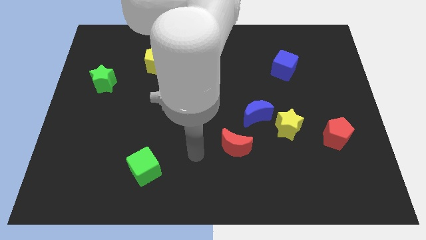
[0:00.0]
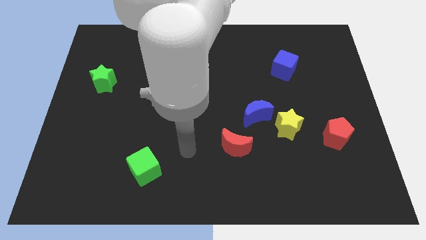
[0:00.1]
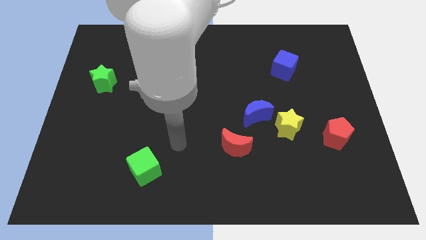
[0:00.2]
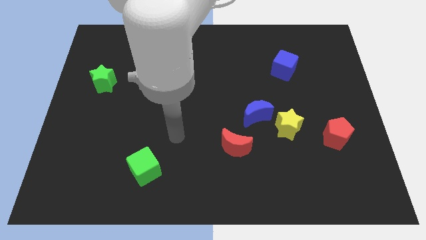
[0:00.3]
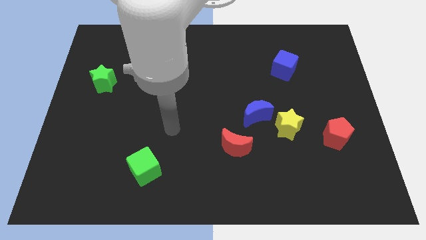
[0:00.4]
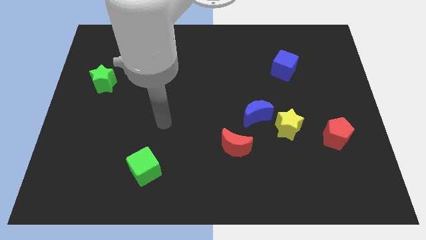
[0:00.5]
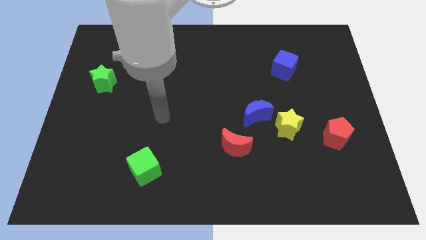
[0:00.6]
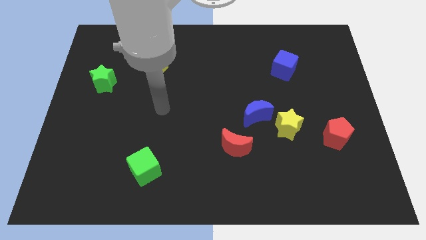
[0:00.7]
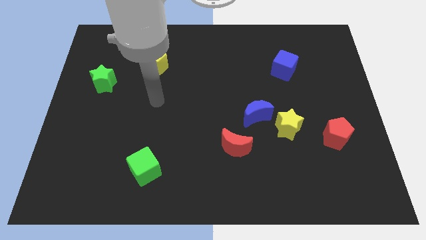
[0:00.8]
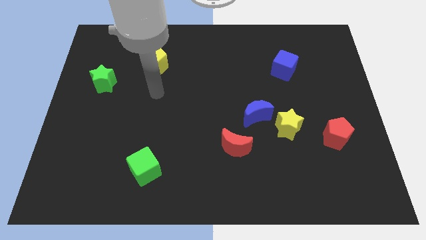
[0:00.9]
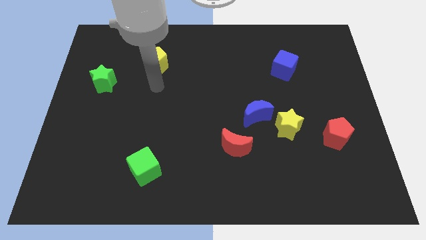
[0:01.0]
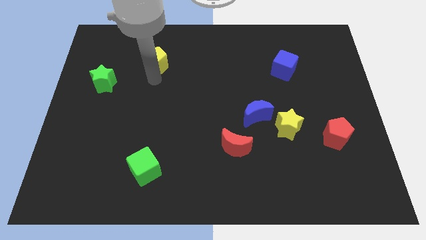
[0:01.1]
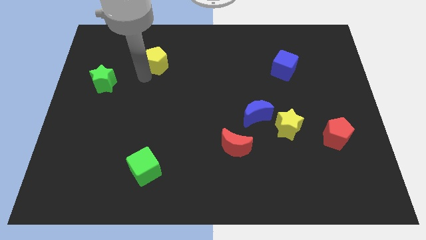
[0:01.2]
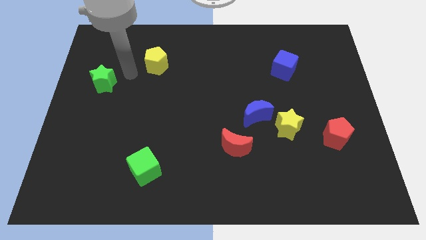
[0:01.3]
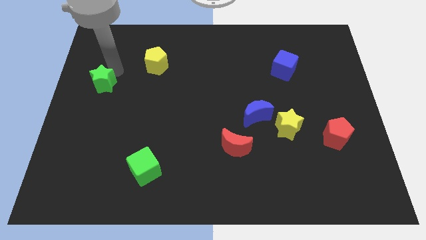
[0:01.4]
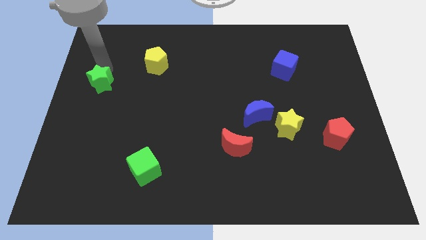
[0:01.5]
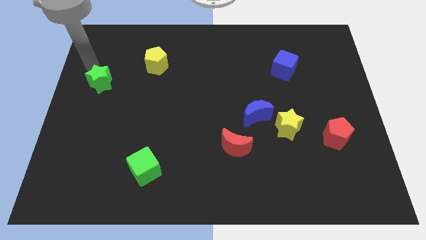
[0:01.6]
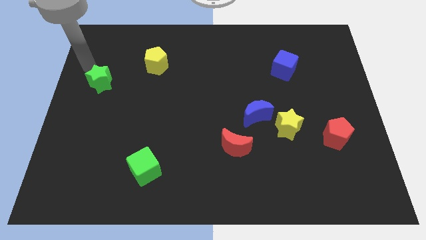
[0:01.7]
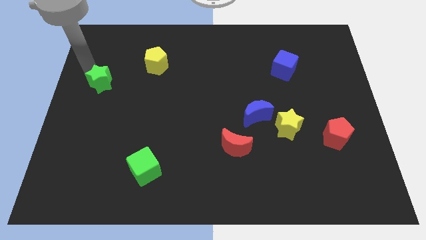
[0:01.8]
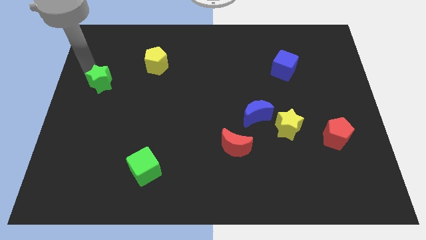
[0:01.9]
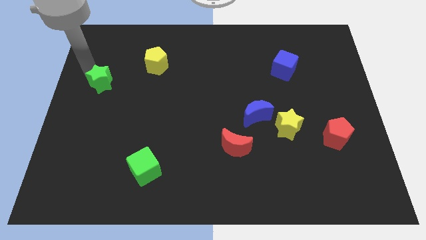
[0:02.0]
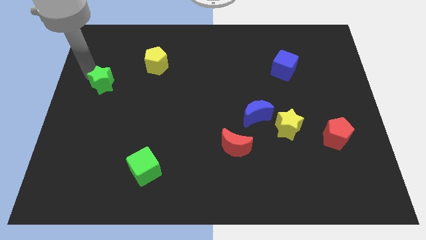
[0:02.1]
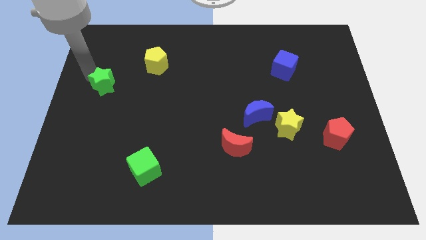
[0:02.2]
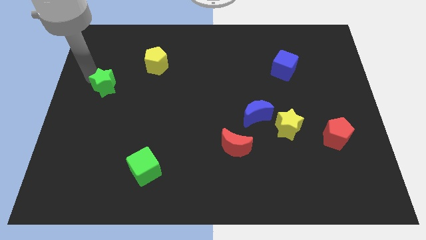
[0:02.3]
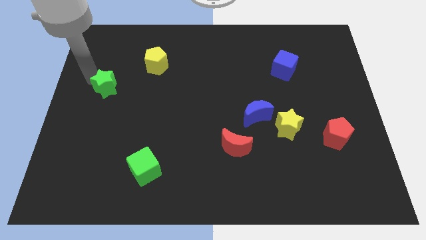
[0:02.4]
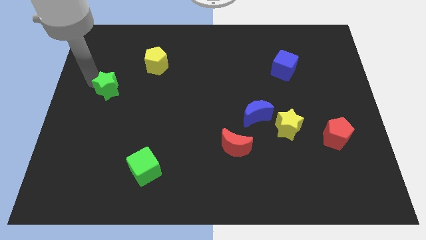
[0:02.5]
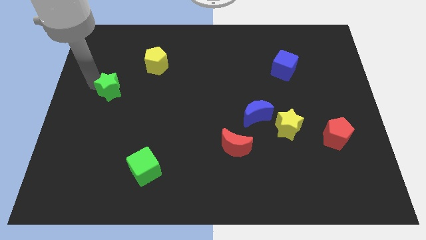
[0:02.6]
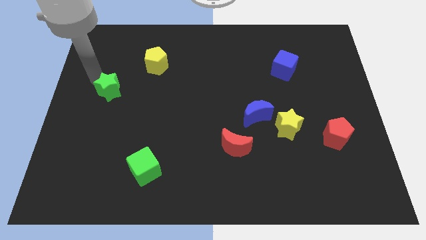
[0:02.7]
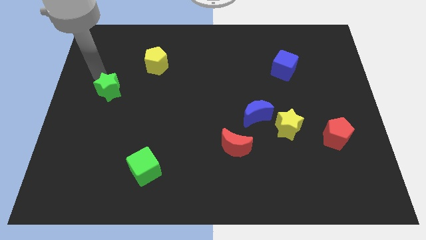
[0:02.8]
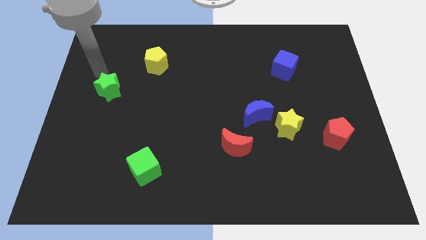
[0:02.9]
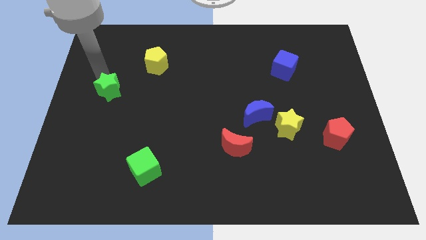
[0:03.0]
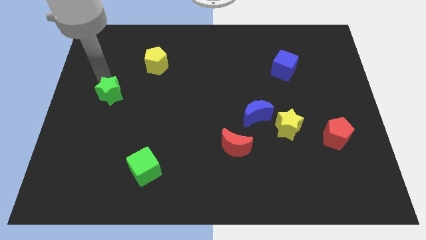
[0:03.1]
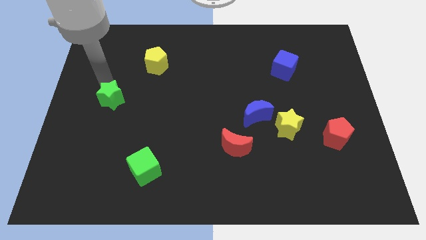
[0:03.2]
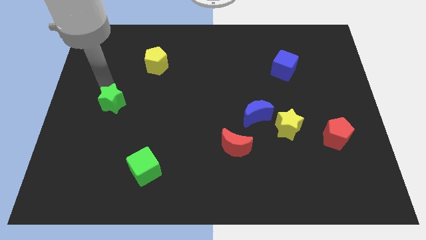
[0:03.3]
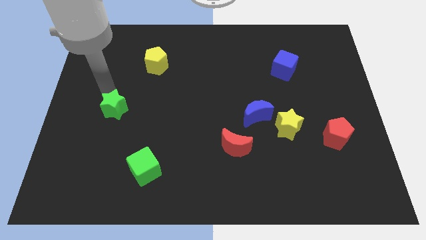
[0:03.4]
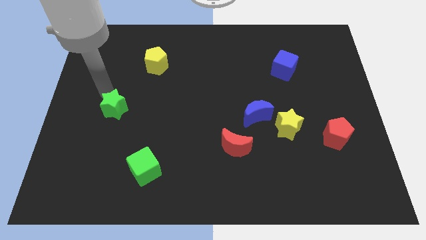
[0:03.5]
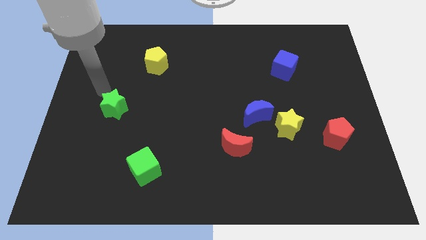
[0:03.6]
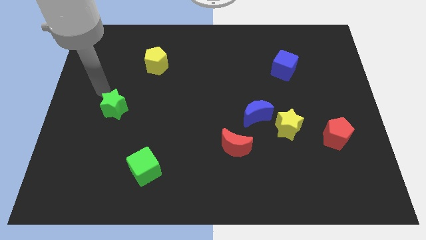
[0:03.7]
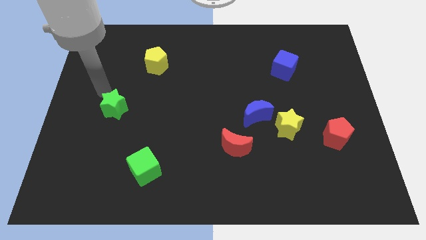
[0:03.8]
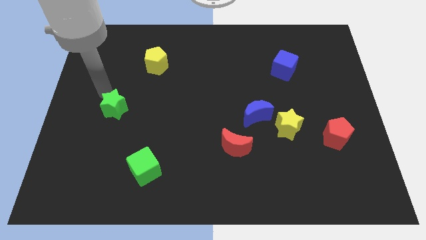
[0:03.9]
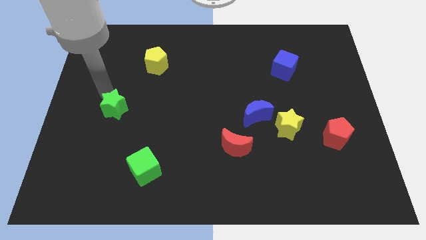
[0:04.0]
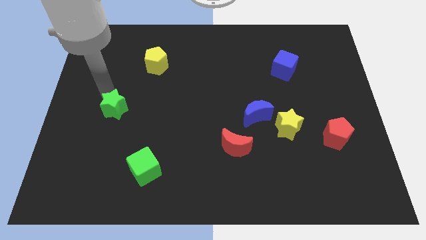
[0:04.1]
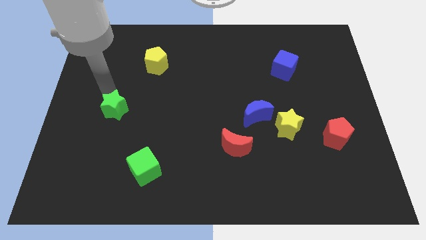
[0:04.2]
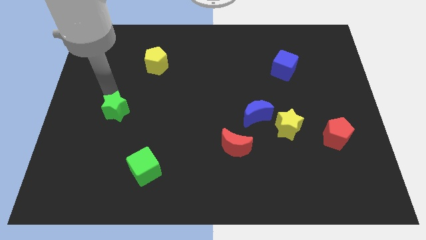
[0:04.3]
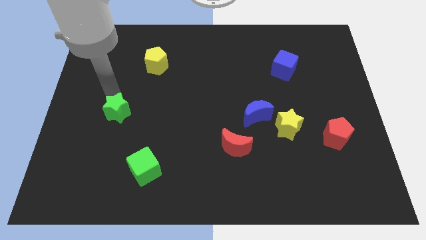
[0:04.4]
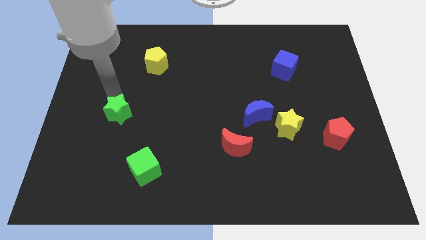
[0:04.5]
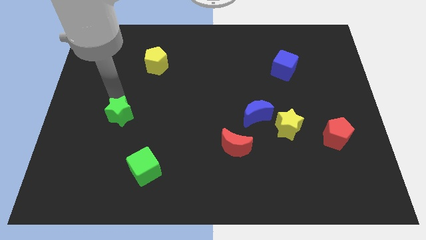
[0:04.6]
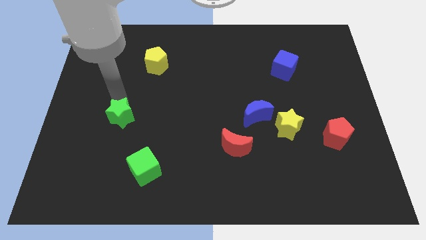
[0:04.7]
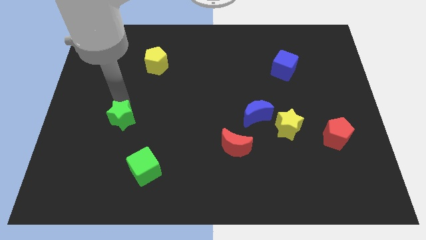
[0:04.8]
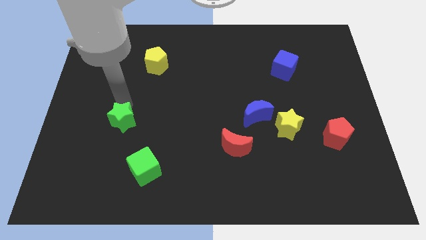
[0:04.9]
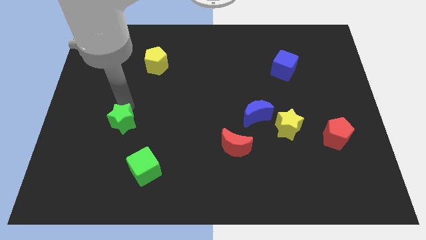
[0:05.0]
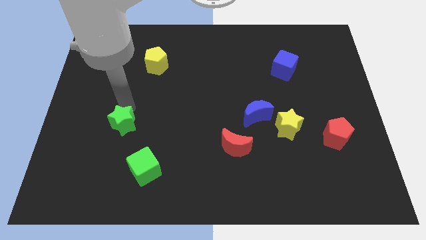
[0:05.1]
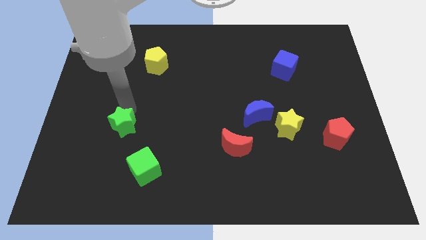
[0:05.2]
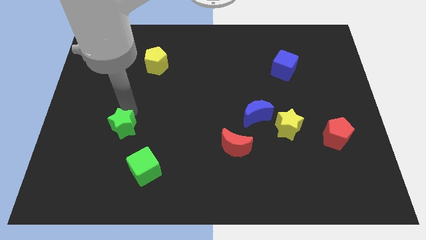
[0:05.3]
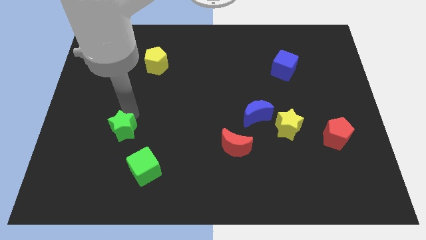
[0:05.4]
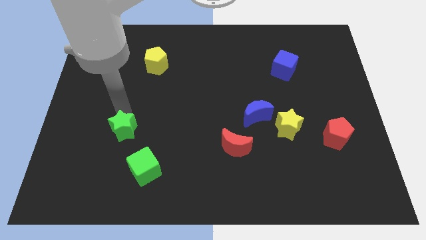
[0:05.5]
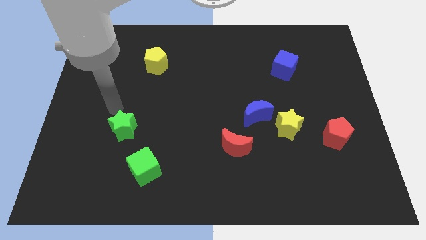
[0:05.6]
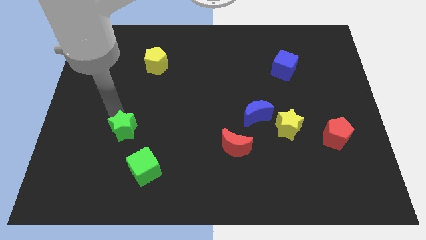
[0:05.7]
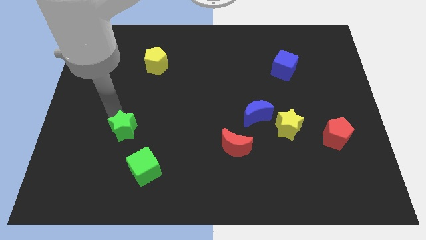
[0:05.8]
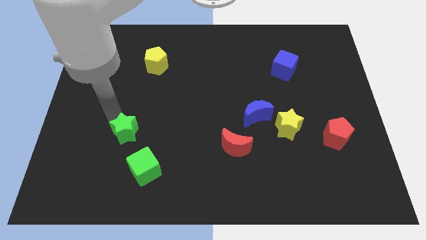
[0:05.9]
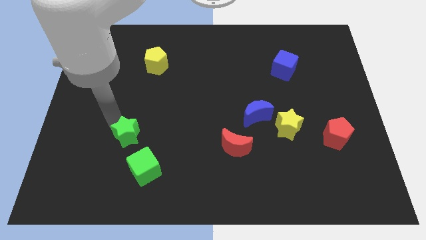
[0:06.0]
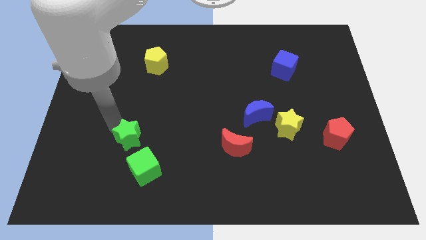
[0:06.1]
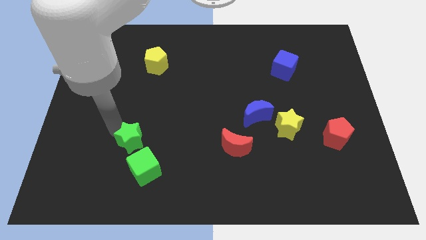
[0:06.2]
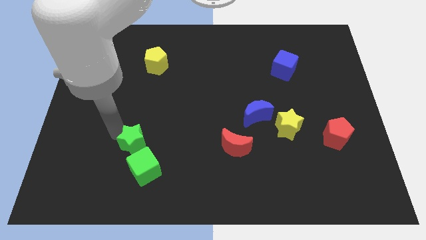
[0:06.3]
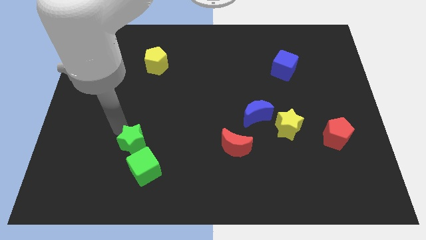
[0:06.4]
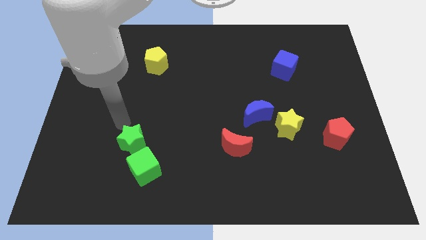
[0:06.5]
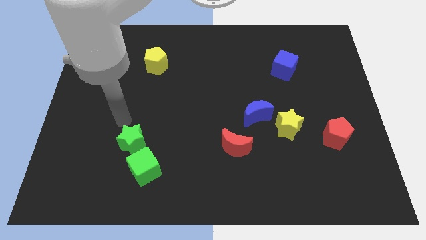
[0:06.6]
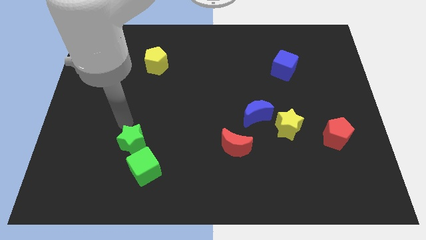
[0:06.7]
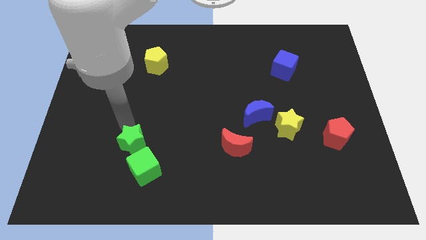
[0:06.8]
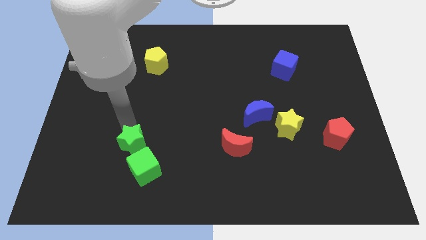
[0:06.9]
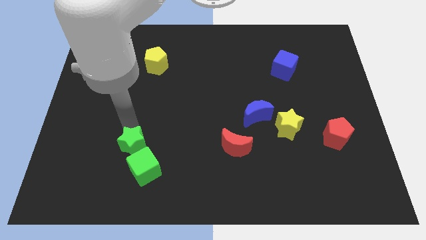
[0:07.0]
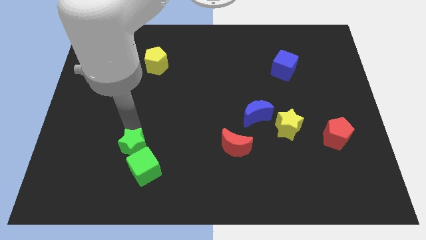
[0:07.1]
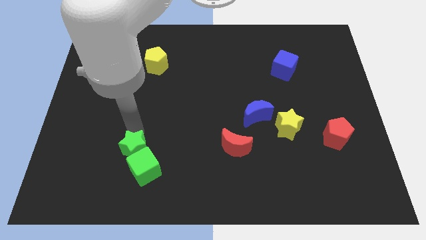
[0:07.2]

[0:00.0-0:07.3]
put the green star to the green cube
